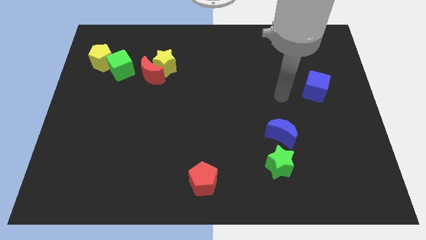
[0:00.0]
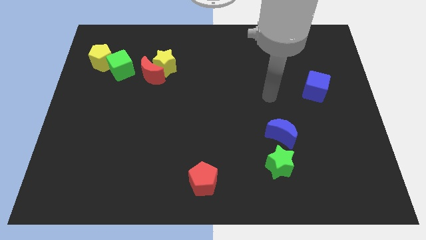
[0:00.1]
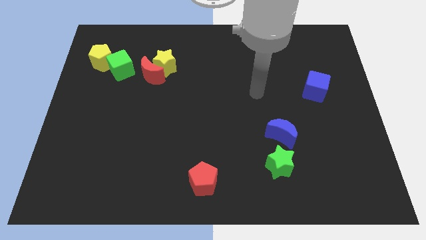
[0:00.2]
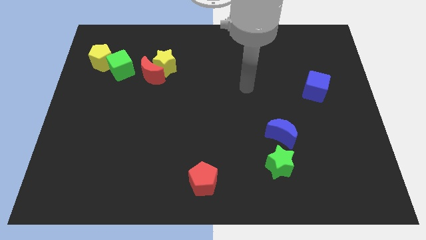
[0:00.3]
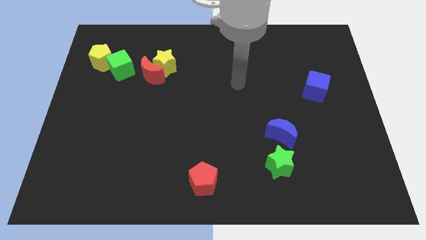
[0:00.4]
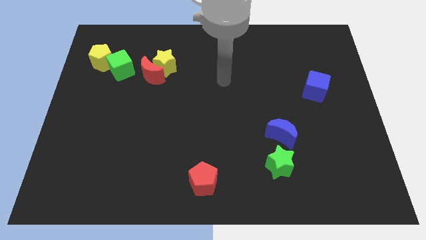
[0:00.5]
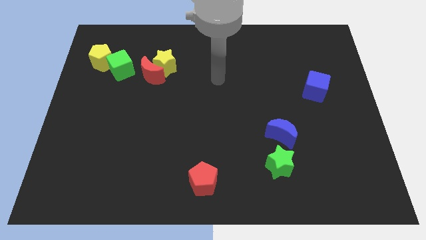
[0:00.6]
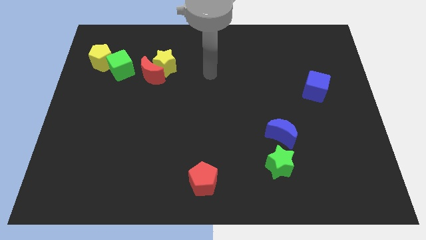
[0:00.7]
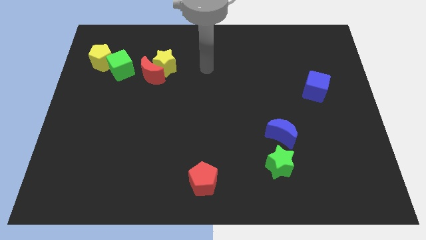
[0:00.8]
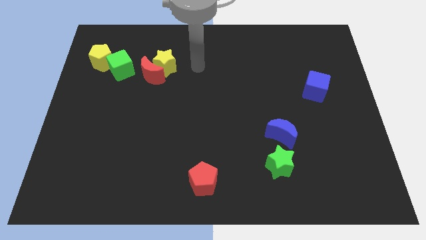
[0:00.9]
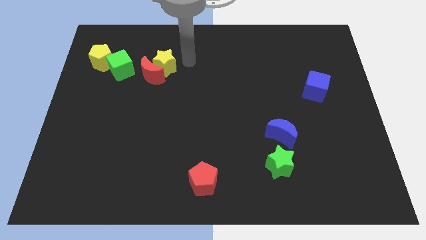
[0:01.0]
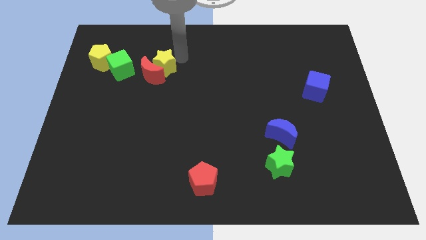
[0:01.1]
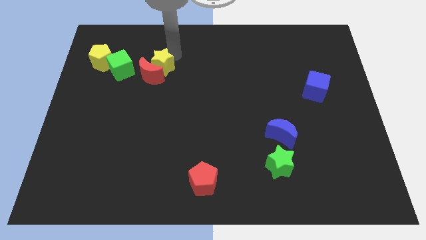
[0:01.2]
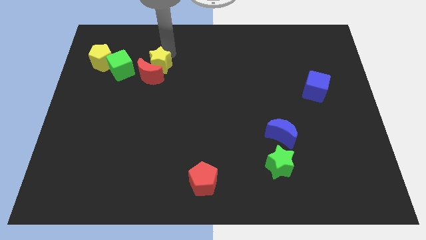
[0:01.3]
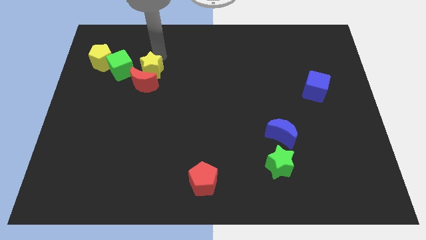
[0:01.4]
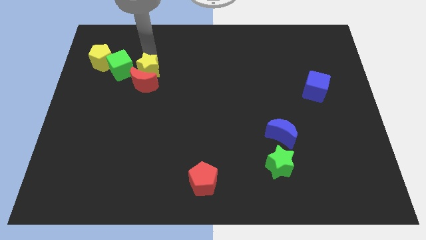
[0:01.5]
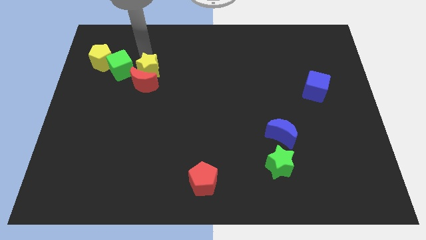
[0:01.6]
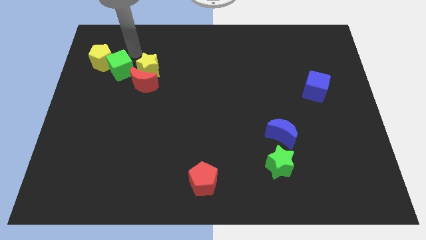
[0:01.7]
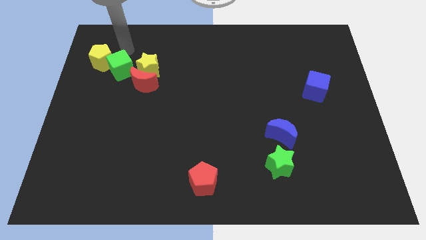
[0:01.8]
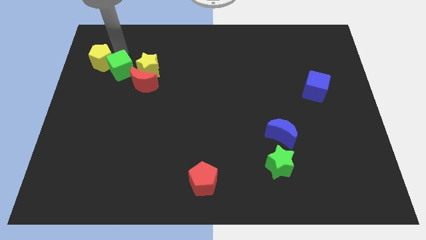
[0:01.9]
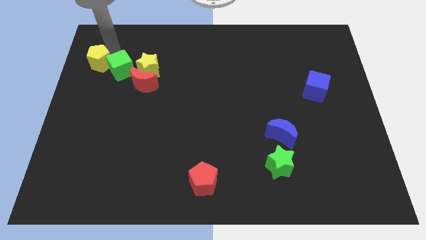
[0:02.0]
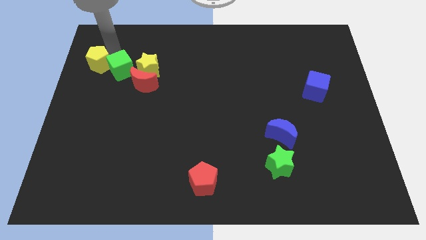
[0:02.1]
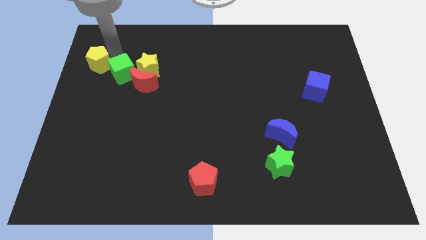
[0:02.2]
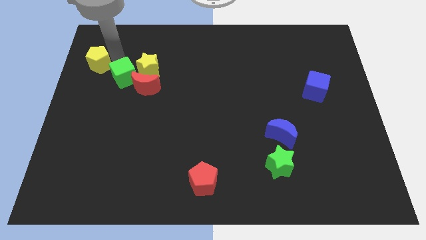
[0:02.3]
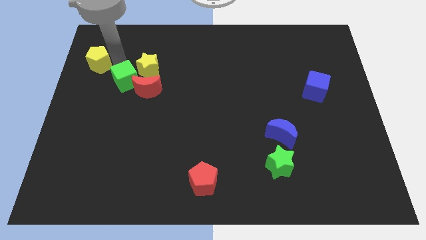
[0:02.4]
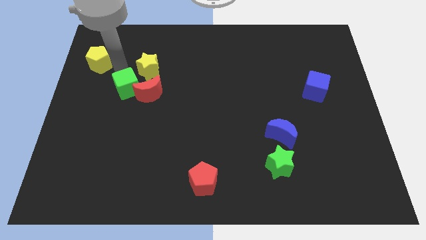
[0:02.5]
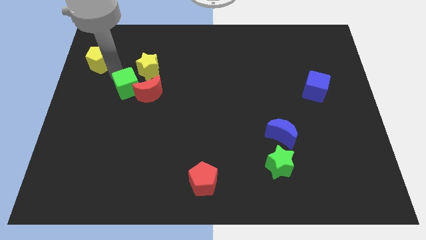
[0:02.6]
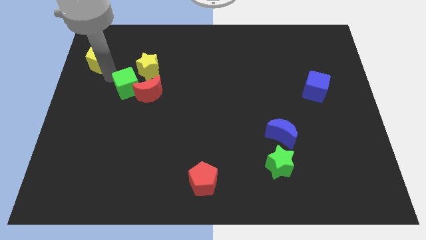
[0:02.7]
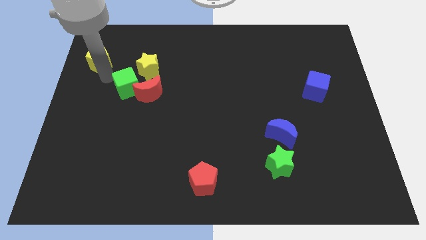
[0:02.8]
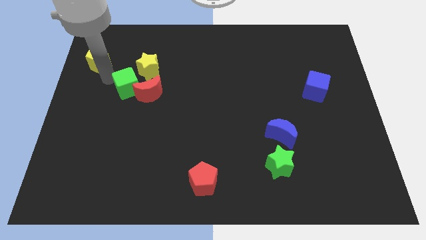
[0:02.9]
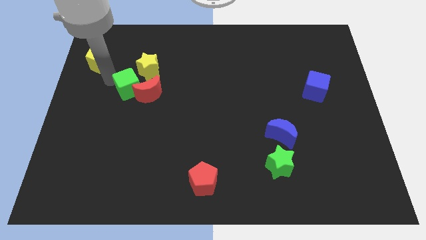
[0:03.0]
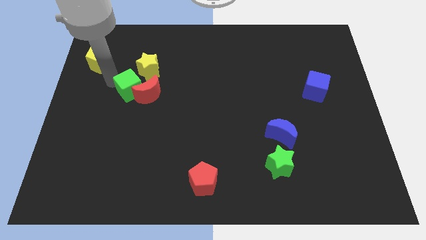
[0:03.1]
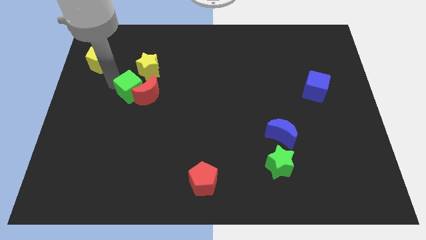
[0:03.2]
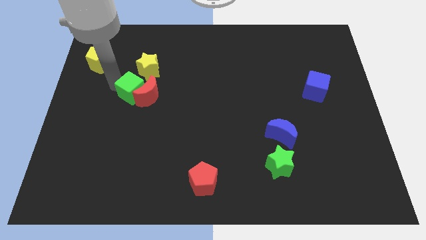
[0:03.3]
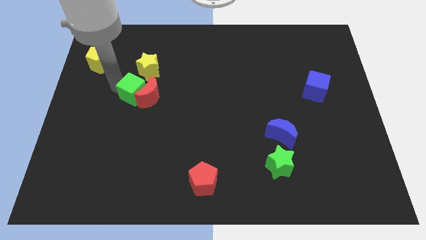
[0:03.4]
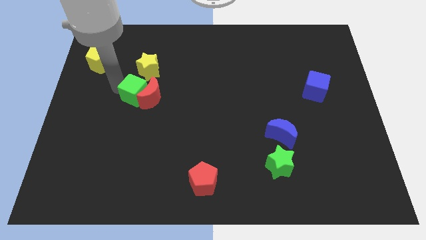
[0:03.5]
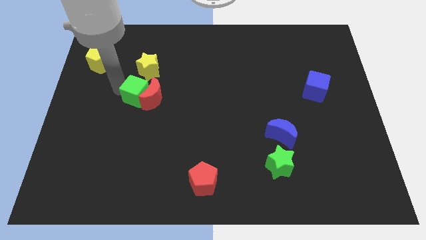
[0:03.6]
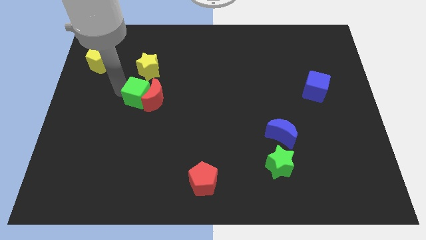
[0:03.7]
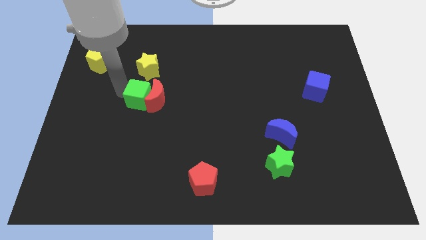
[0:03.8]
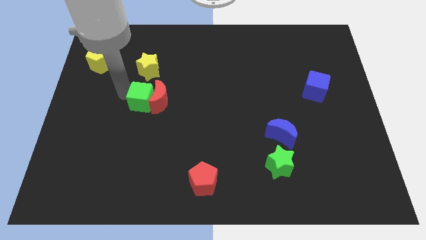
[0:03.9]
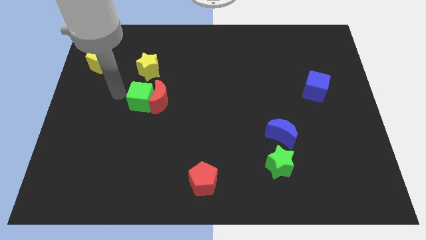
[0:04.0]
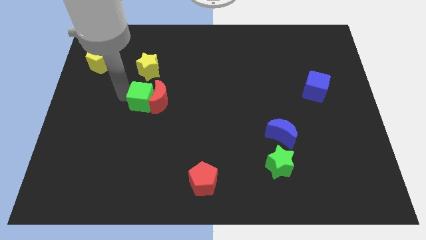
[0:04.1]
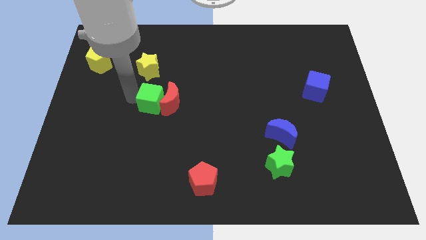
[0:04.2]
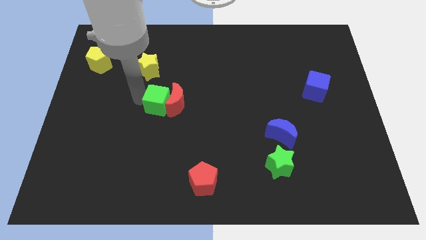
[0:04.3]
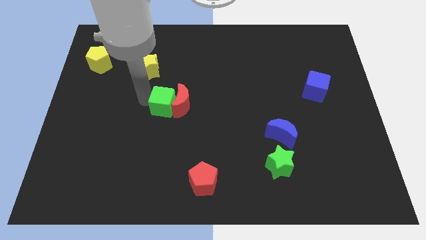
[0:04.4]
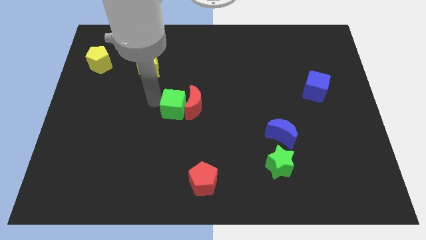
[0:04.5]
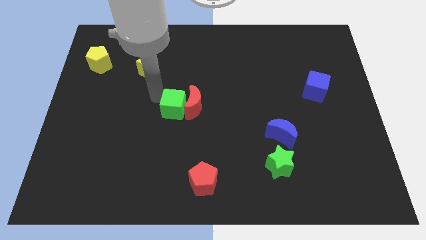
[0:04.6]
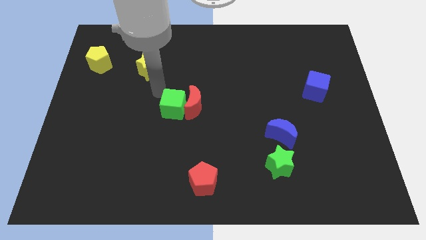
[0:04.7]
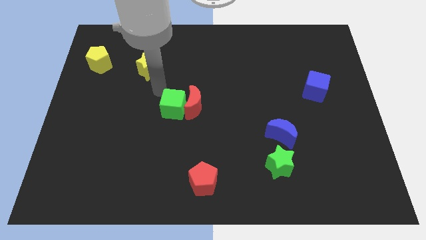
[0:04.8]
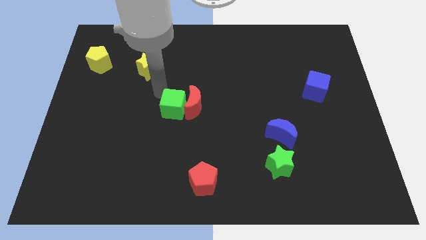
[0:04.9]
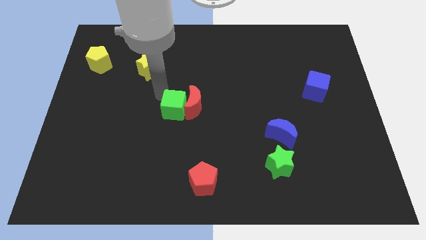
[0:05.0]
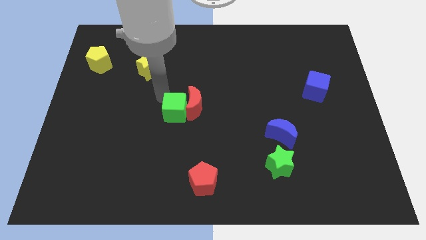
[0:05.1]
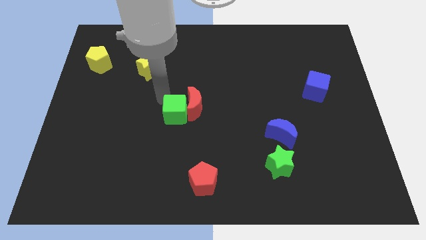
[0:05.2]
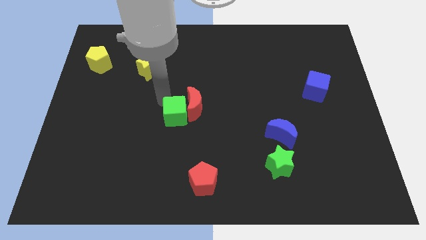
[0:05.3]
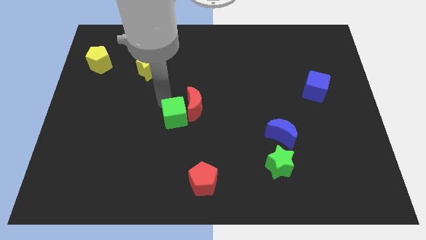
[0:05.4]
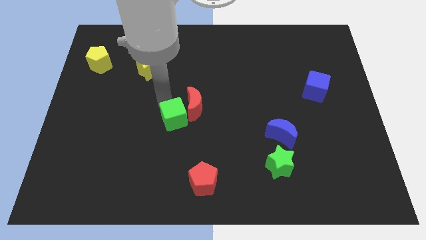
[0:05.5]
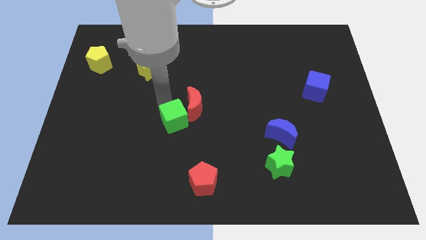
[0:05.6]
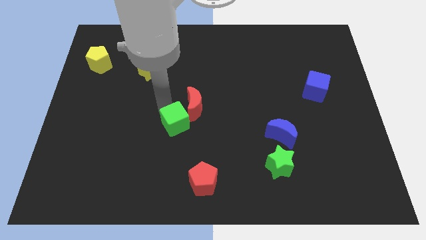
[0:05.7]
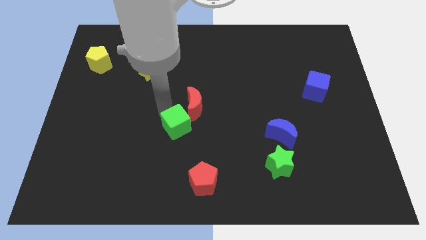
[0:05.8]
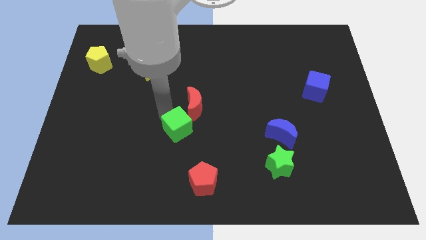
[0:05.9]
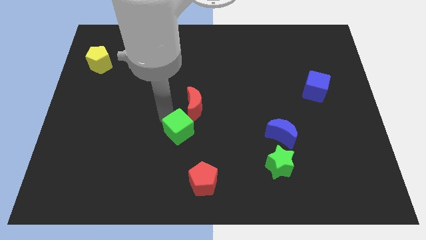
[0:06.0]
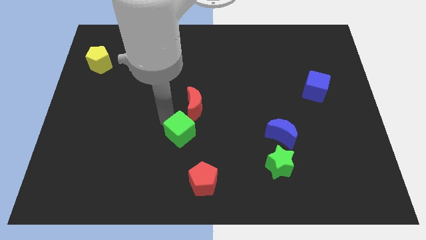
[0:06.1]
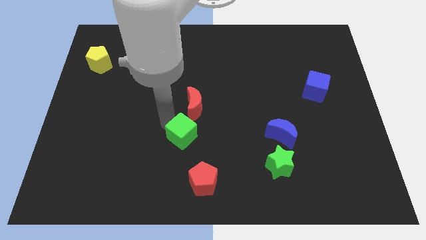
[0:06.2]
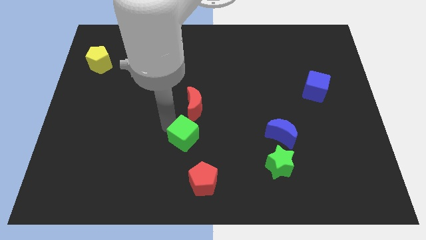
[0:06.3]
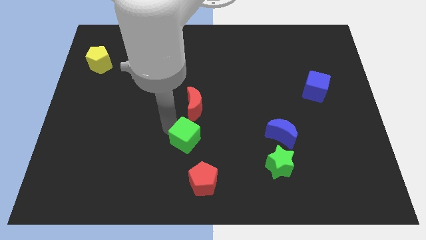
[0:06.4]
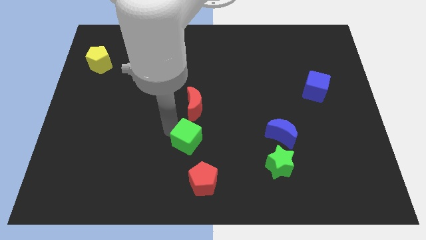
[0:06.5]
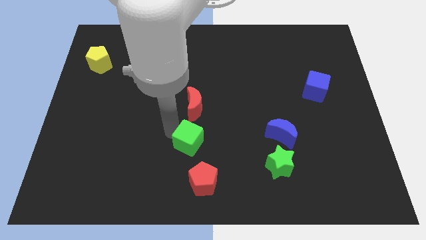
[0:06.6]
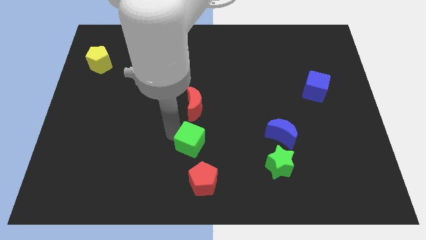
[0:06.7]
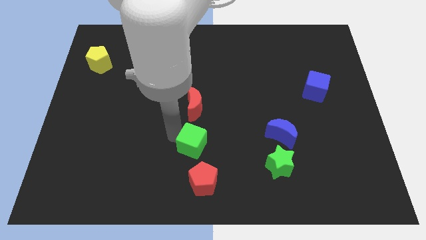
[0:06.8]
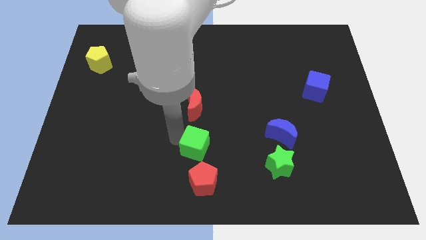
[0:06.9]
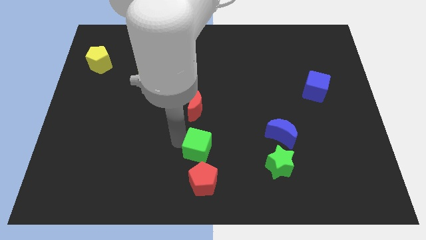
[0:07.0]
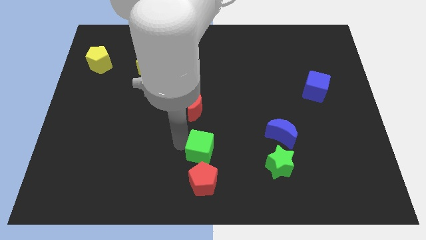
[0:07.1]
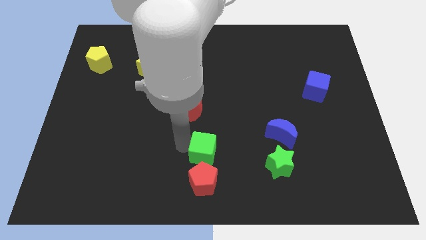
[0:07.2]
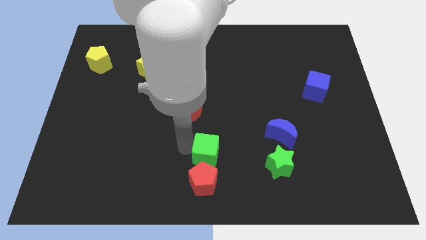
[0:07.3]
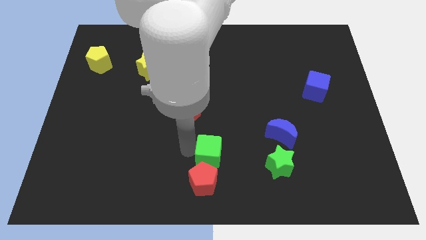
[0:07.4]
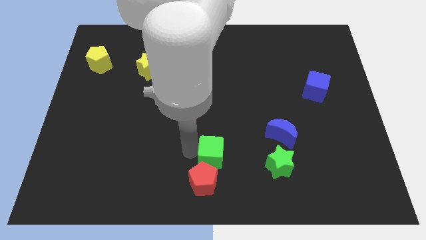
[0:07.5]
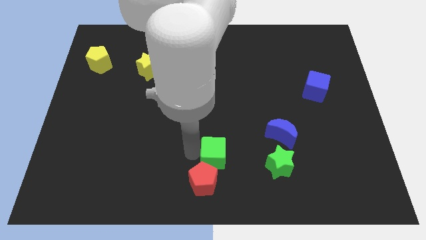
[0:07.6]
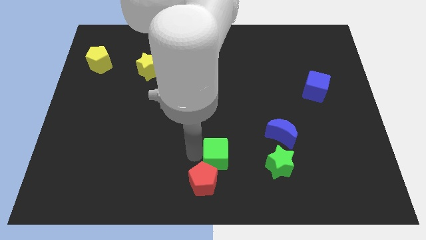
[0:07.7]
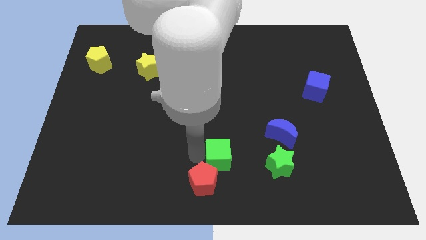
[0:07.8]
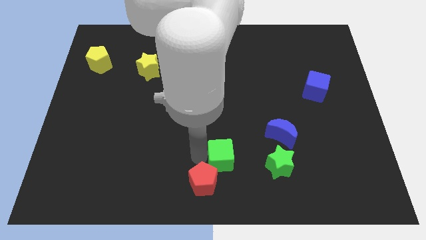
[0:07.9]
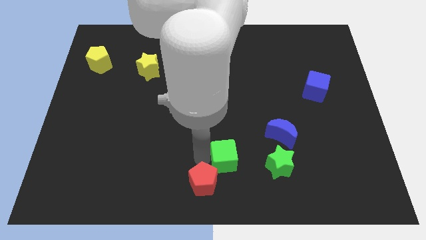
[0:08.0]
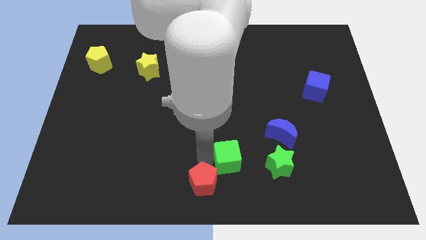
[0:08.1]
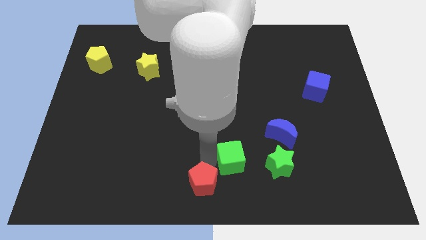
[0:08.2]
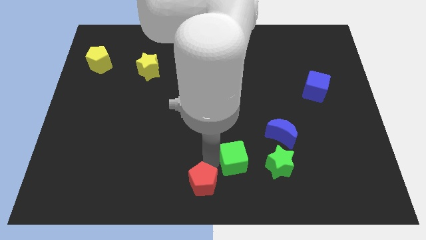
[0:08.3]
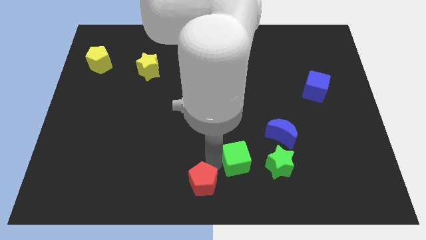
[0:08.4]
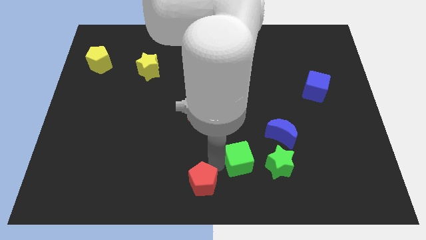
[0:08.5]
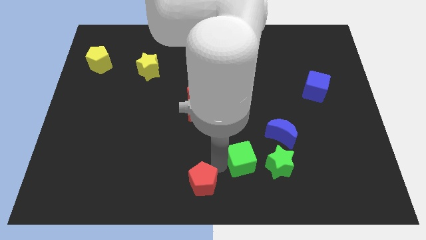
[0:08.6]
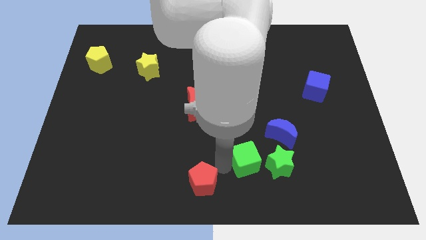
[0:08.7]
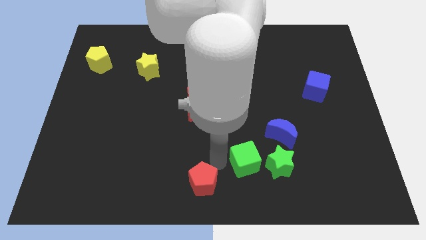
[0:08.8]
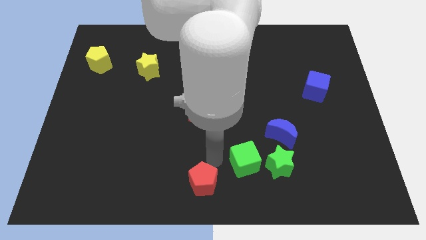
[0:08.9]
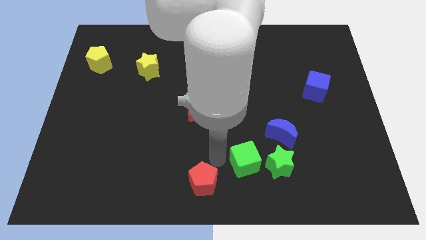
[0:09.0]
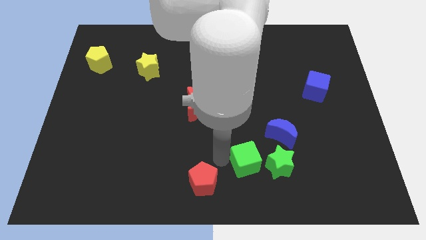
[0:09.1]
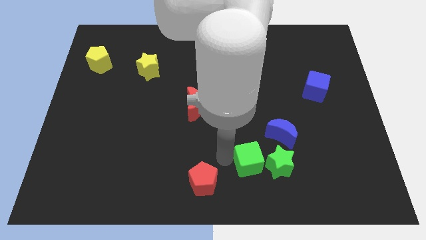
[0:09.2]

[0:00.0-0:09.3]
move the green cube close to the green star
